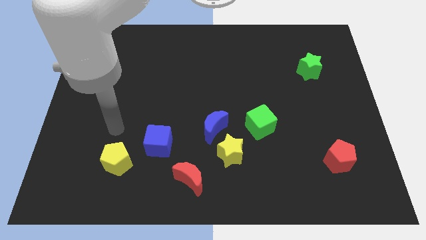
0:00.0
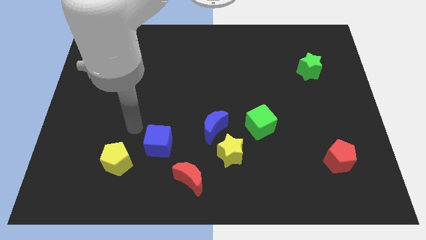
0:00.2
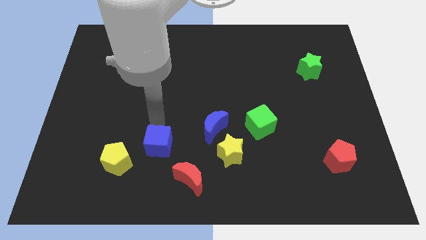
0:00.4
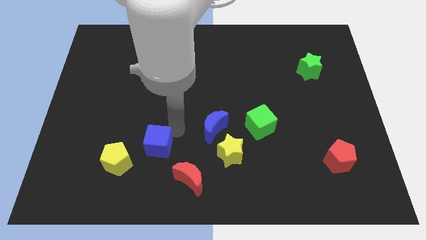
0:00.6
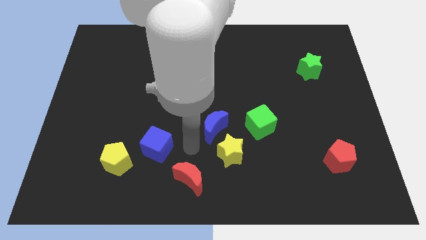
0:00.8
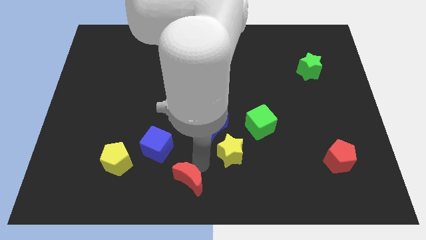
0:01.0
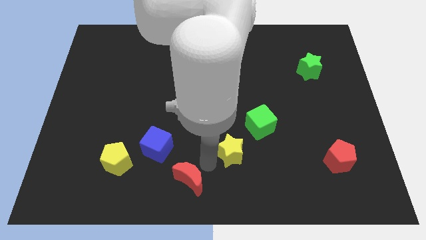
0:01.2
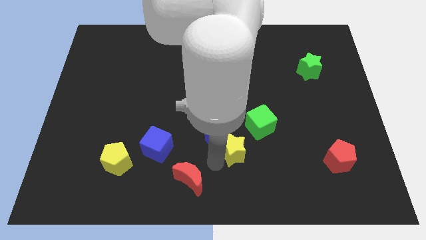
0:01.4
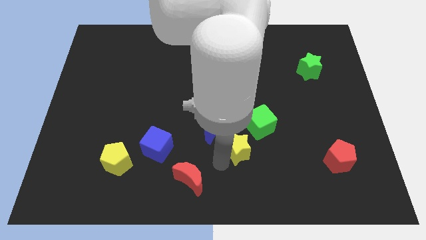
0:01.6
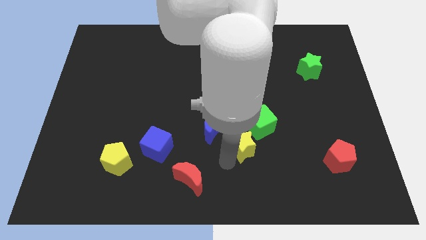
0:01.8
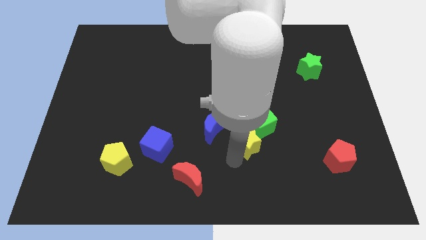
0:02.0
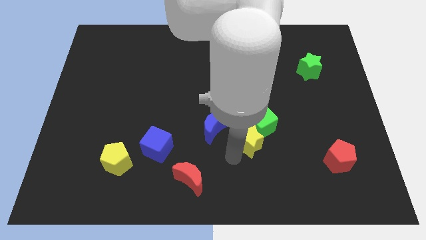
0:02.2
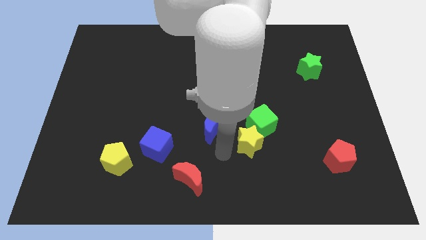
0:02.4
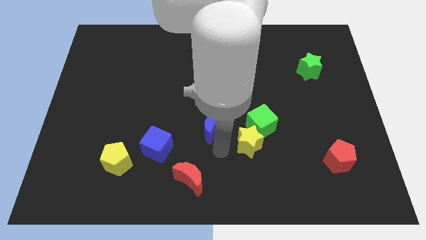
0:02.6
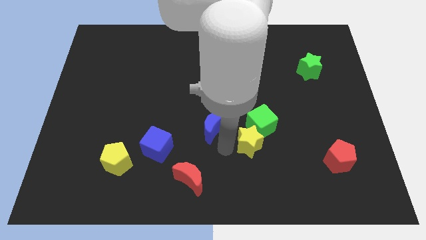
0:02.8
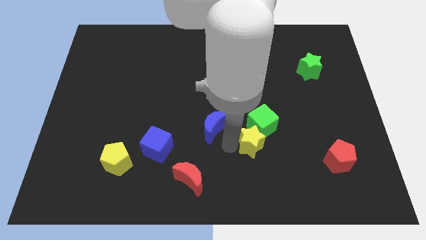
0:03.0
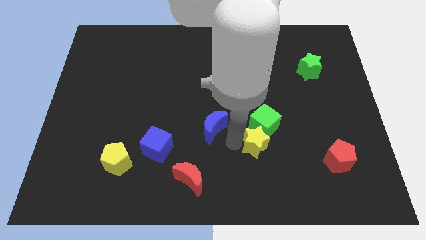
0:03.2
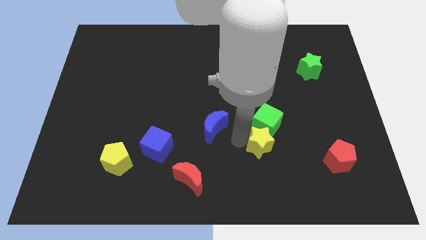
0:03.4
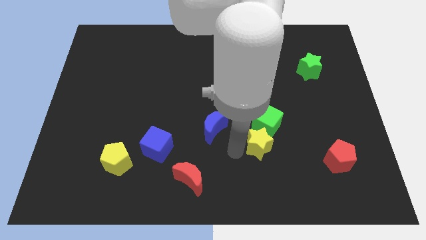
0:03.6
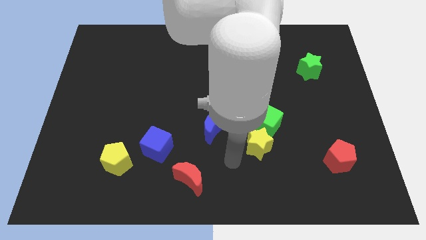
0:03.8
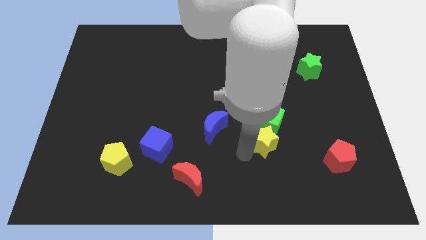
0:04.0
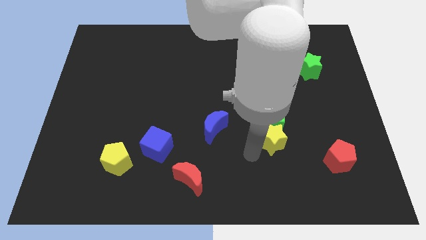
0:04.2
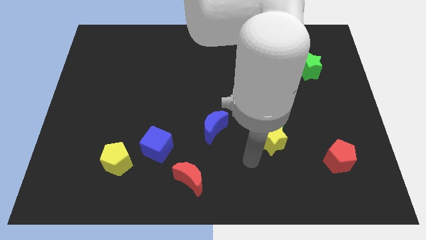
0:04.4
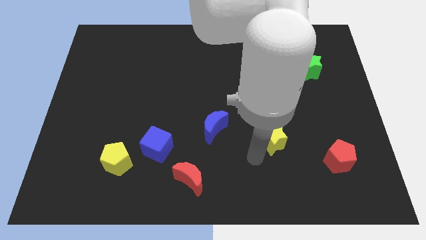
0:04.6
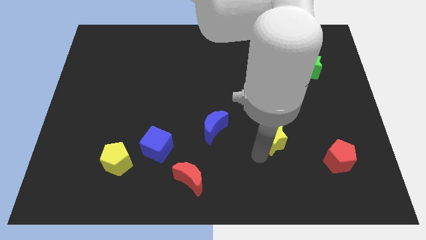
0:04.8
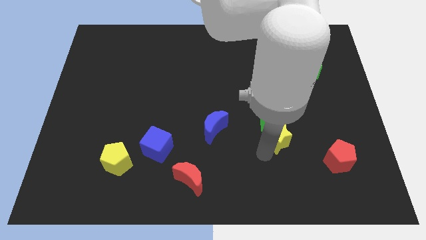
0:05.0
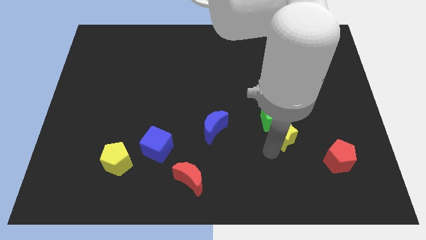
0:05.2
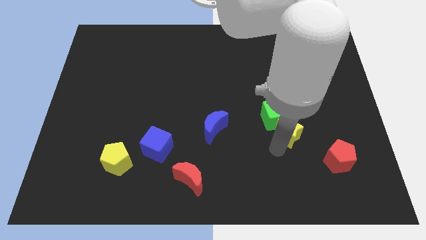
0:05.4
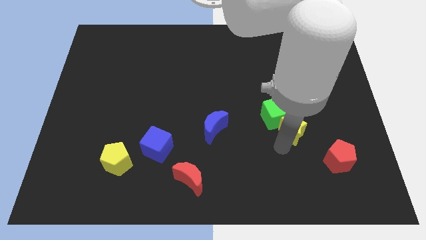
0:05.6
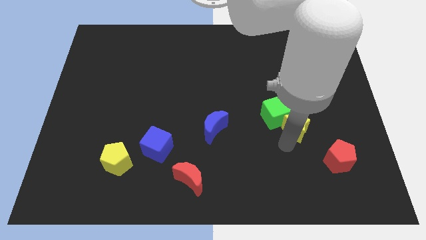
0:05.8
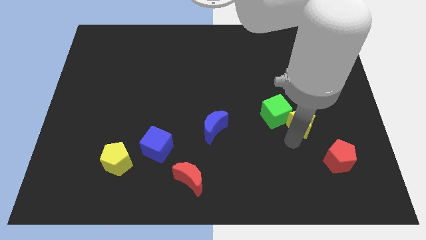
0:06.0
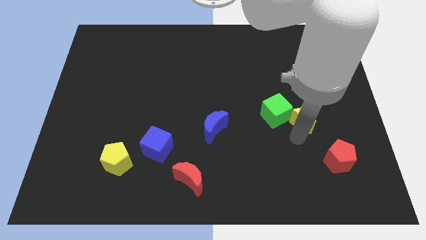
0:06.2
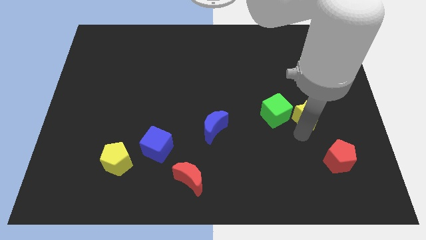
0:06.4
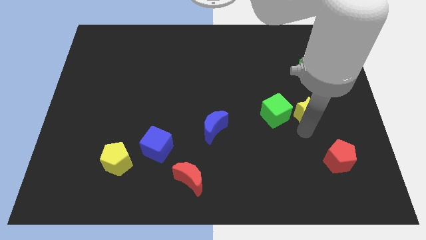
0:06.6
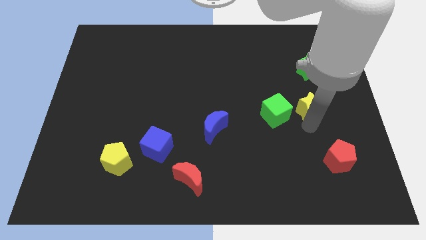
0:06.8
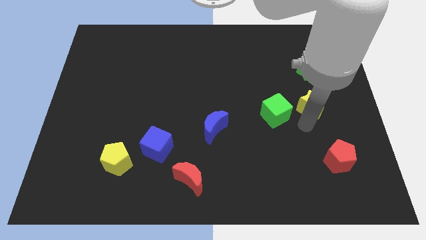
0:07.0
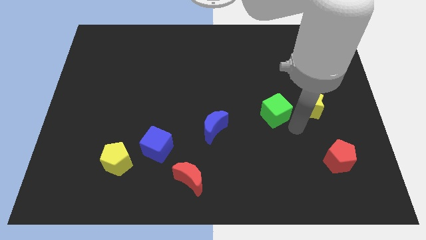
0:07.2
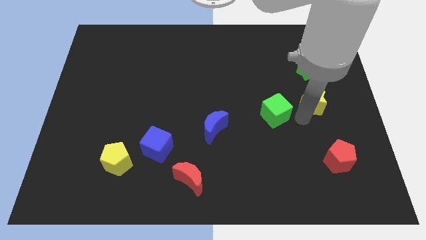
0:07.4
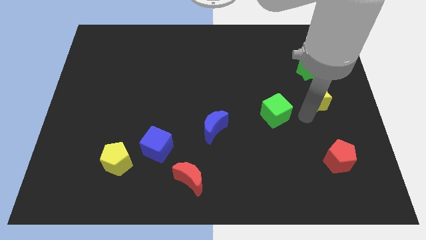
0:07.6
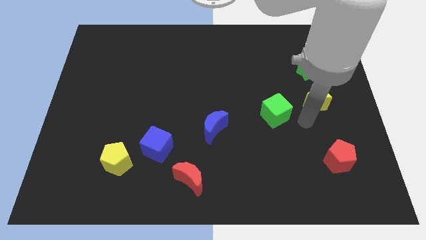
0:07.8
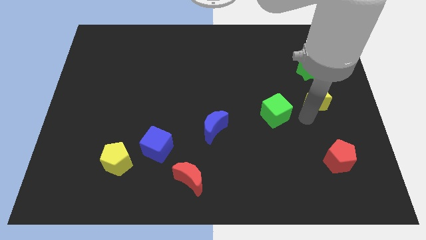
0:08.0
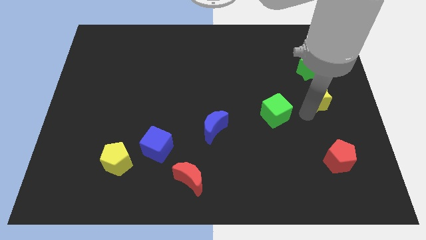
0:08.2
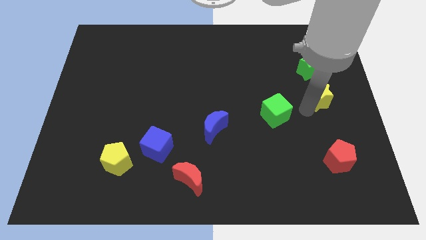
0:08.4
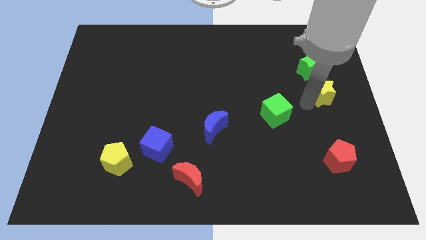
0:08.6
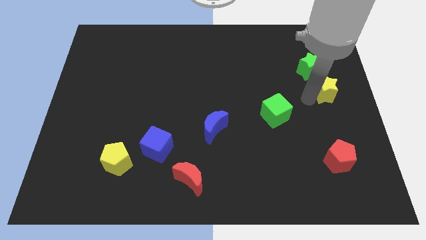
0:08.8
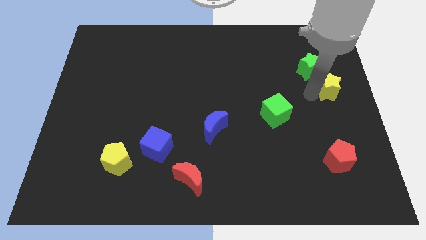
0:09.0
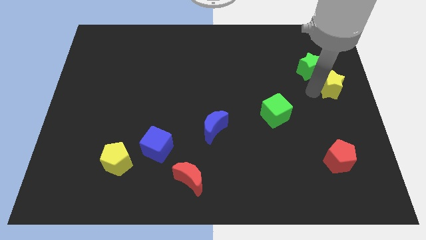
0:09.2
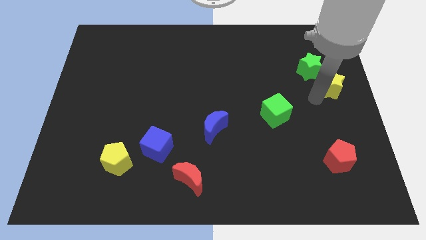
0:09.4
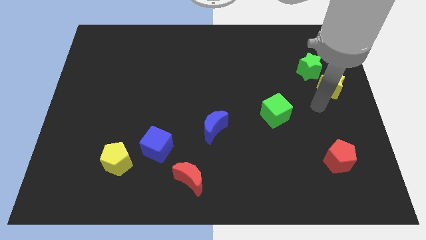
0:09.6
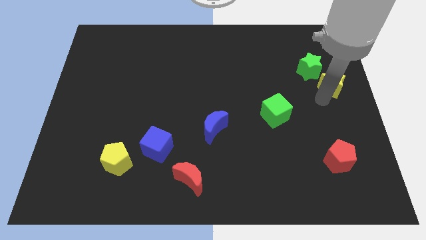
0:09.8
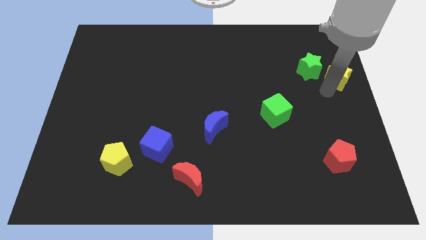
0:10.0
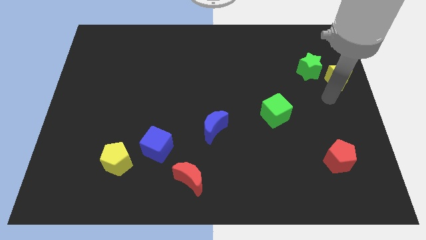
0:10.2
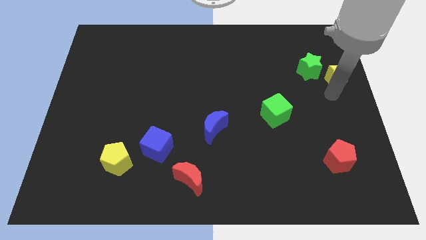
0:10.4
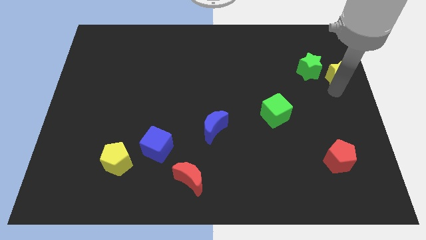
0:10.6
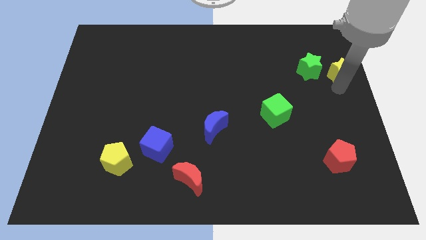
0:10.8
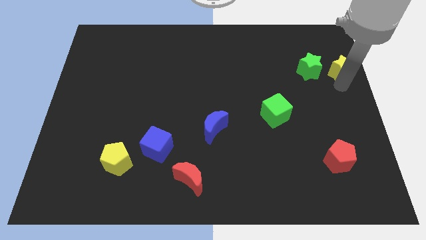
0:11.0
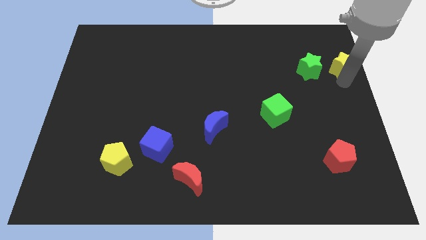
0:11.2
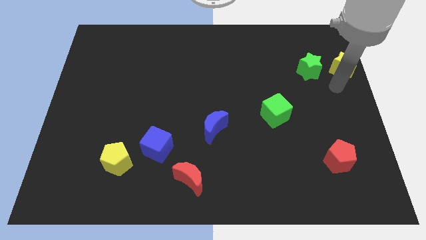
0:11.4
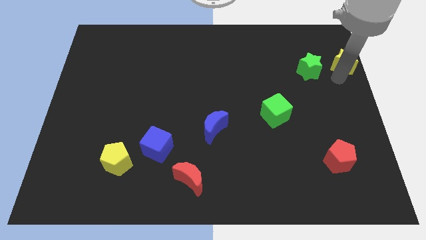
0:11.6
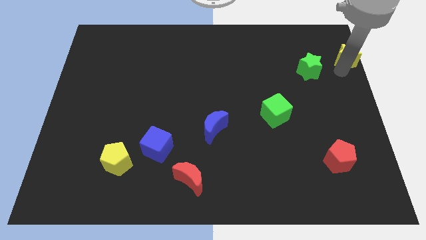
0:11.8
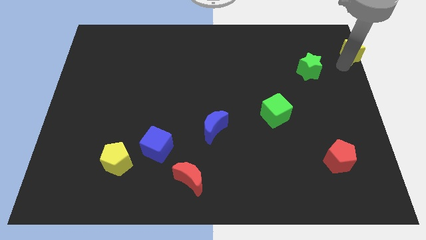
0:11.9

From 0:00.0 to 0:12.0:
push the yellow star to the top right corner
